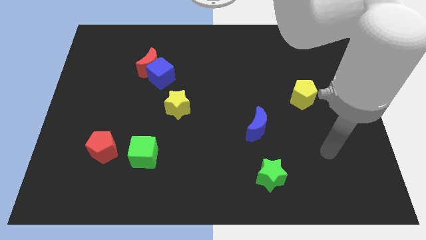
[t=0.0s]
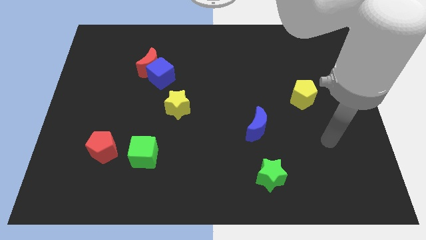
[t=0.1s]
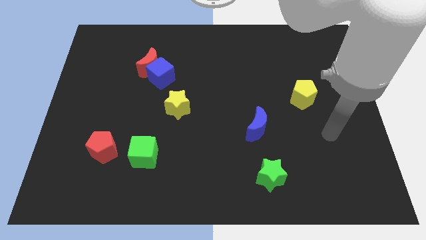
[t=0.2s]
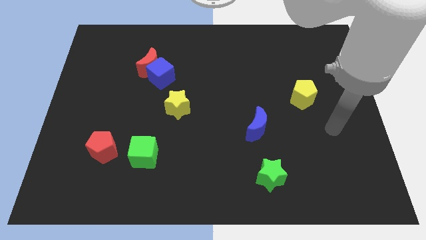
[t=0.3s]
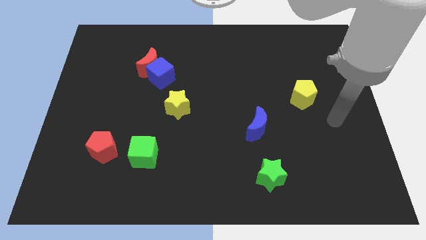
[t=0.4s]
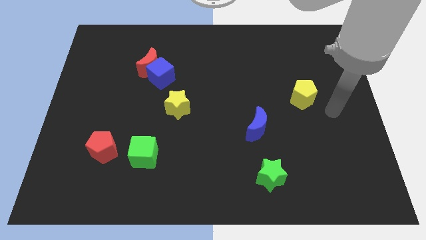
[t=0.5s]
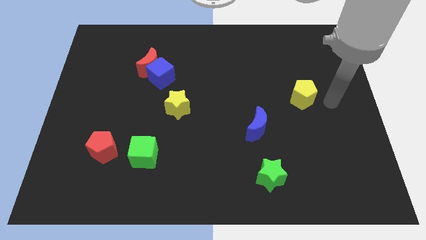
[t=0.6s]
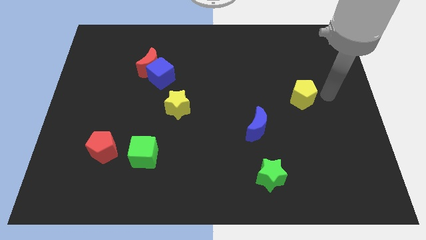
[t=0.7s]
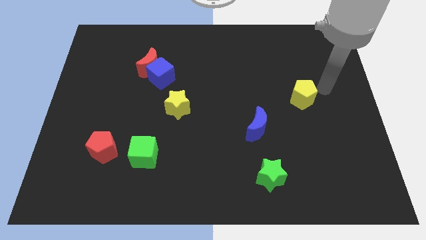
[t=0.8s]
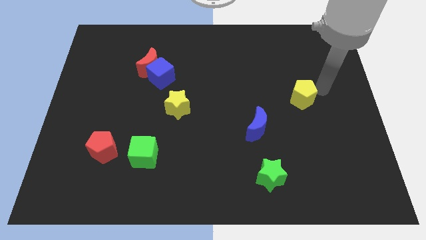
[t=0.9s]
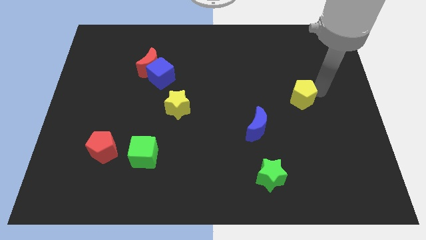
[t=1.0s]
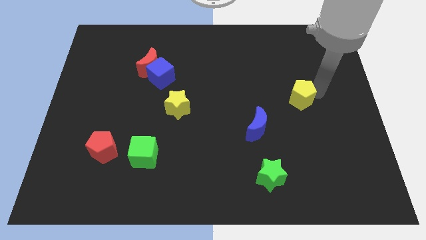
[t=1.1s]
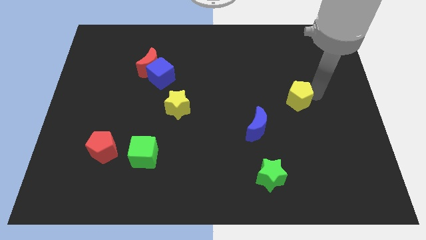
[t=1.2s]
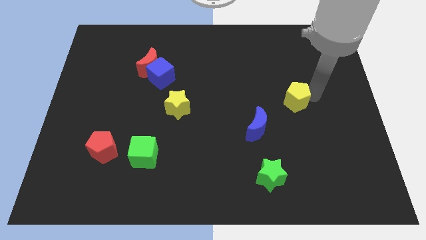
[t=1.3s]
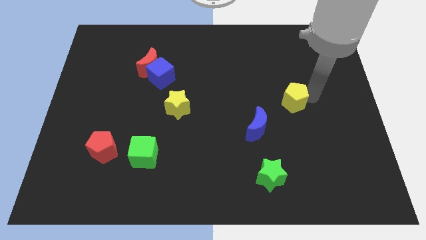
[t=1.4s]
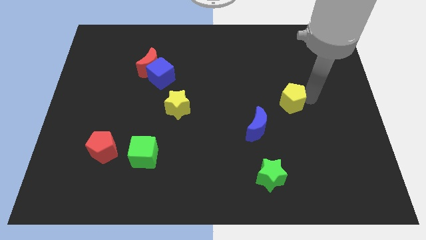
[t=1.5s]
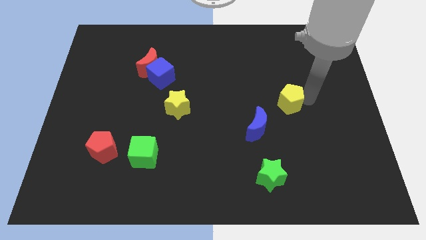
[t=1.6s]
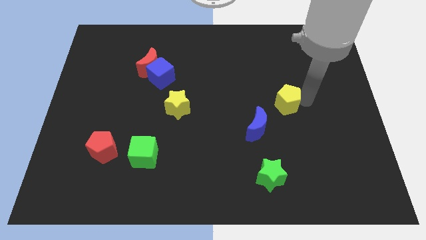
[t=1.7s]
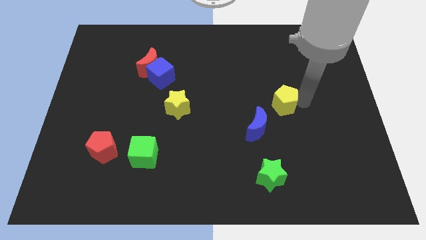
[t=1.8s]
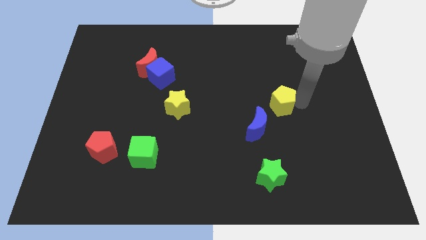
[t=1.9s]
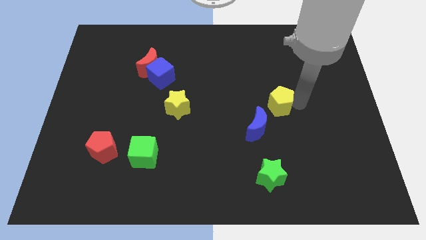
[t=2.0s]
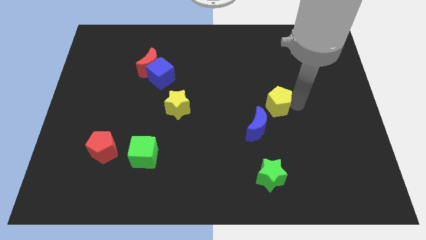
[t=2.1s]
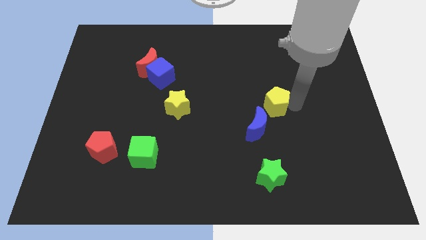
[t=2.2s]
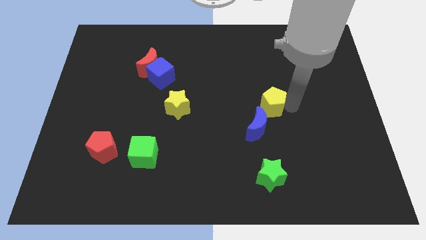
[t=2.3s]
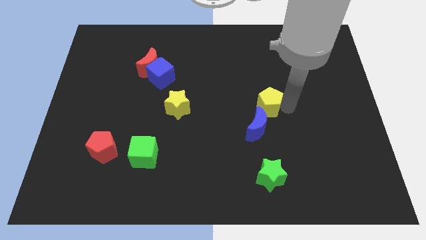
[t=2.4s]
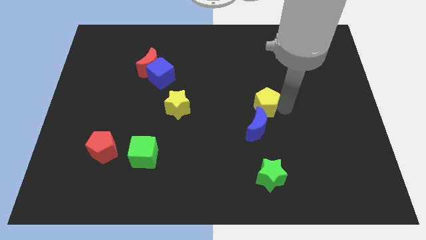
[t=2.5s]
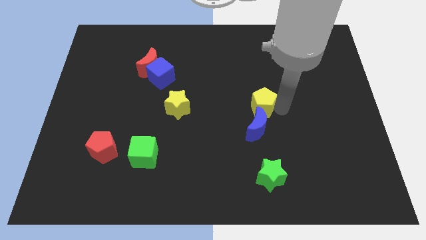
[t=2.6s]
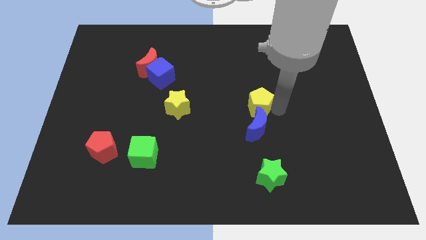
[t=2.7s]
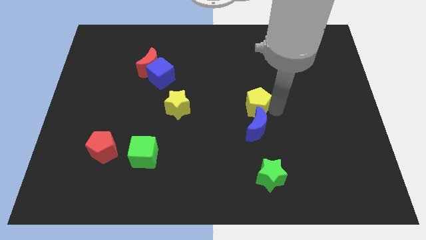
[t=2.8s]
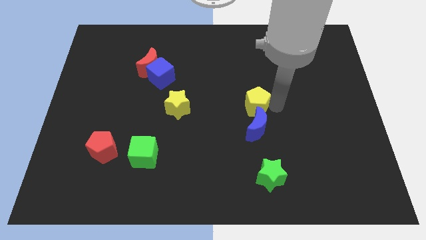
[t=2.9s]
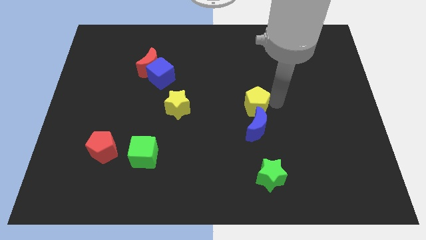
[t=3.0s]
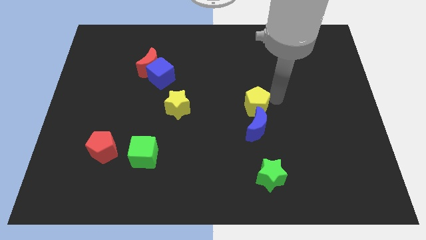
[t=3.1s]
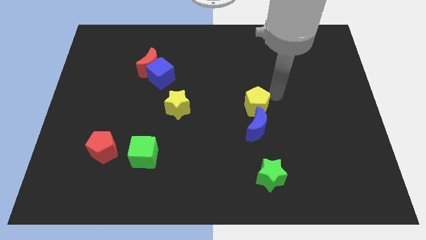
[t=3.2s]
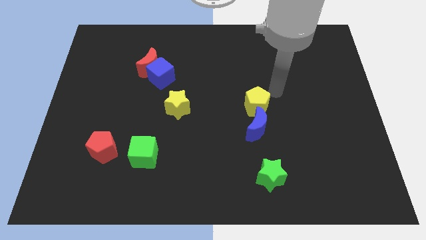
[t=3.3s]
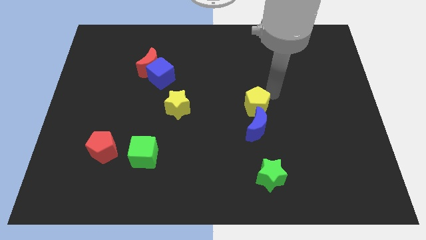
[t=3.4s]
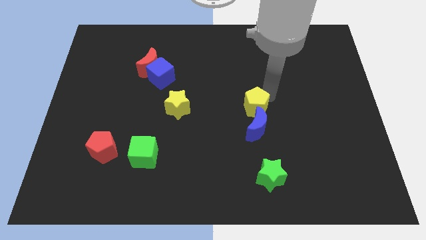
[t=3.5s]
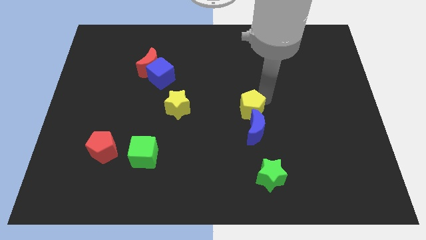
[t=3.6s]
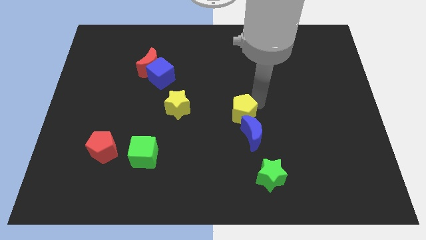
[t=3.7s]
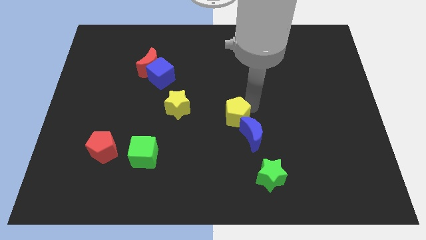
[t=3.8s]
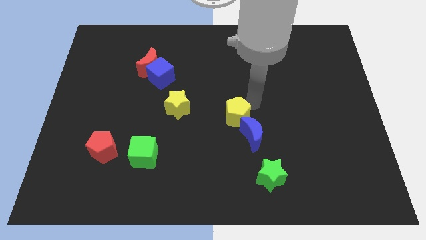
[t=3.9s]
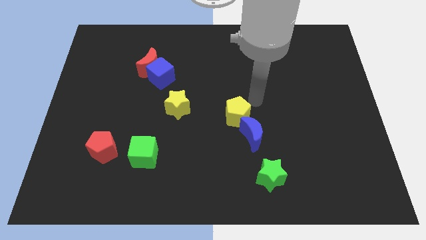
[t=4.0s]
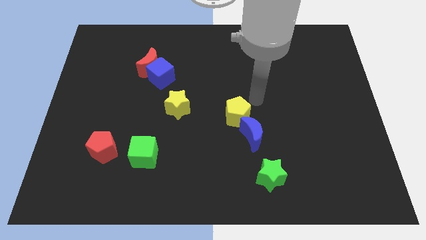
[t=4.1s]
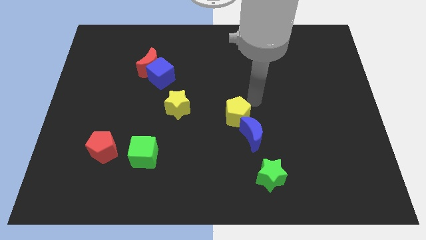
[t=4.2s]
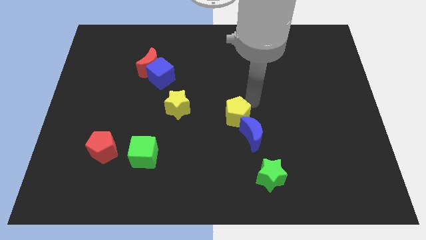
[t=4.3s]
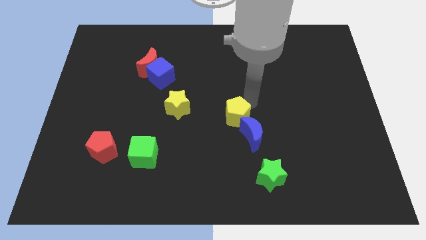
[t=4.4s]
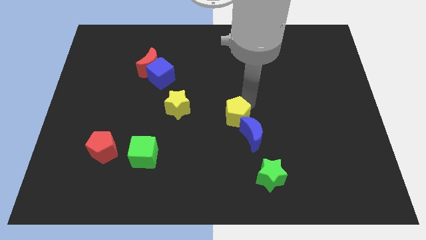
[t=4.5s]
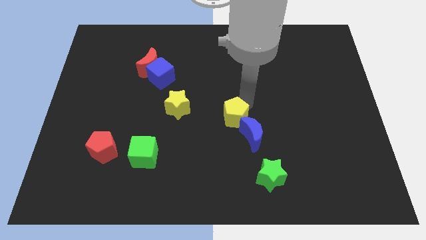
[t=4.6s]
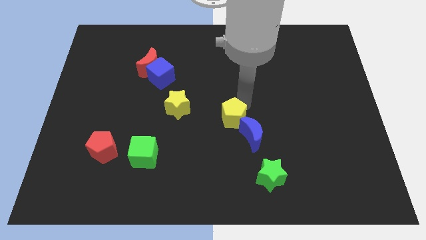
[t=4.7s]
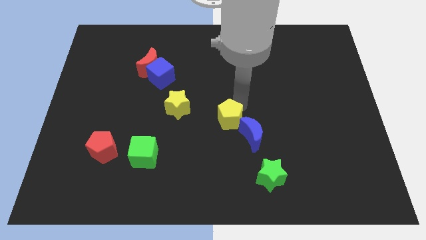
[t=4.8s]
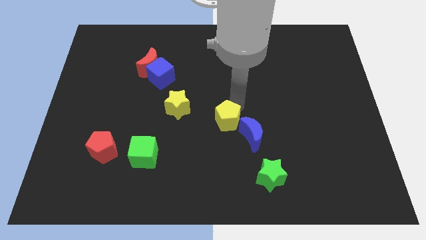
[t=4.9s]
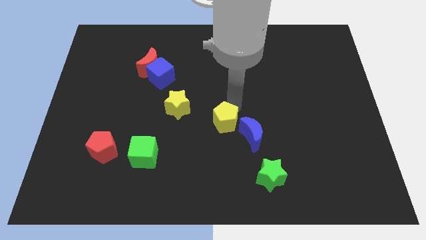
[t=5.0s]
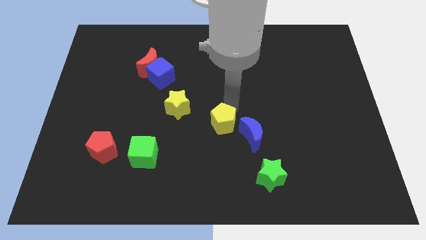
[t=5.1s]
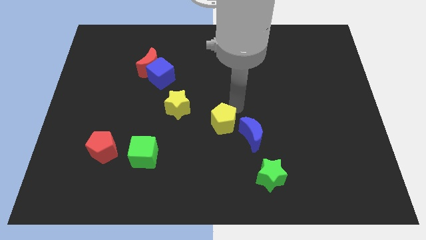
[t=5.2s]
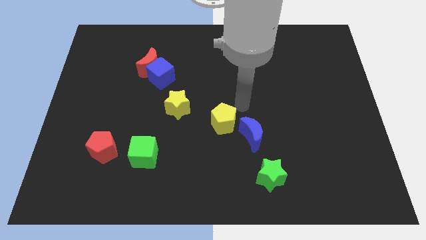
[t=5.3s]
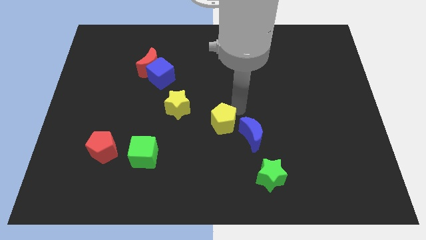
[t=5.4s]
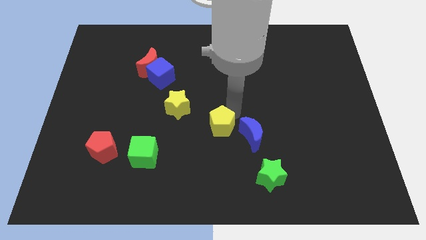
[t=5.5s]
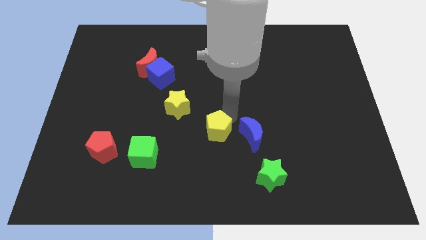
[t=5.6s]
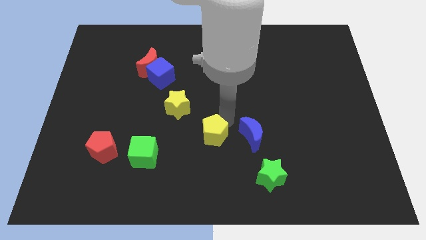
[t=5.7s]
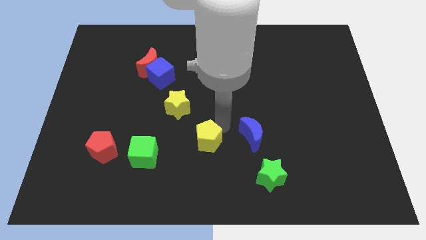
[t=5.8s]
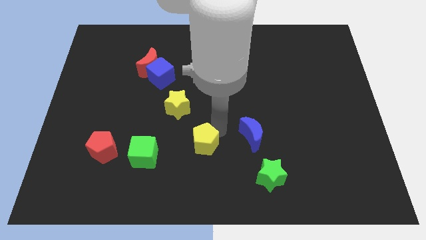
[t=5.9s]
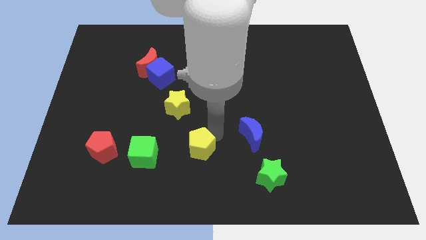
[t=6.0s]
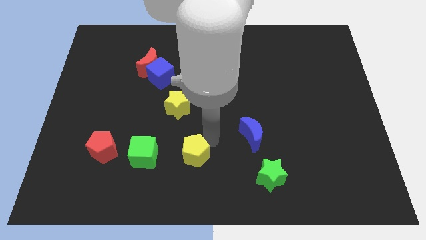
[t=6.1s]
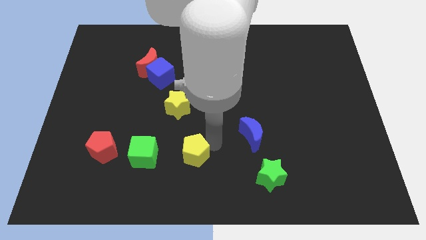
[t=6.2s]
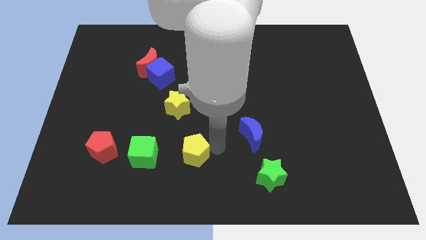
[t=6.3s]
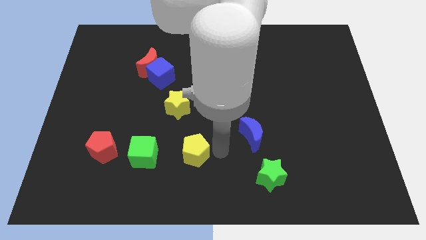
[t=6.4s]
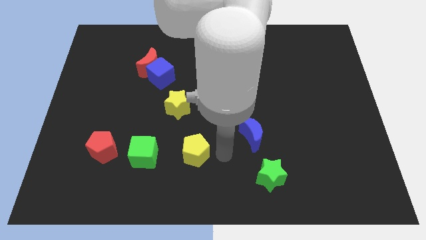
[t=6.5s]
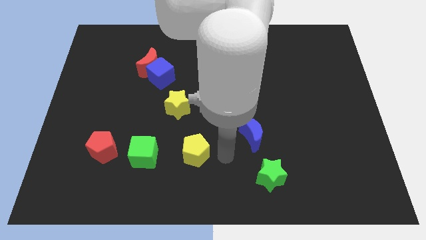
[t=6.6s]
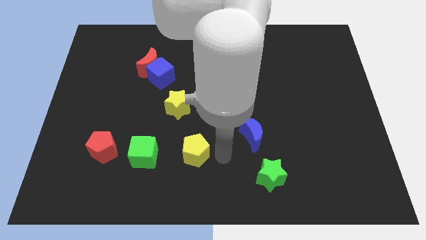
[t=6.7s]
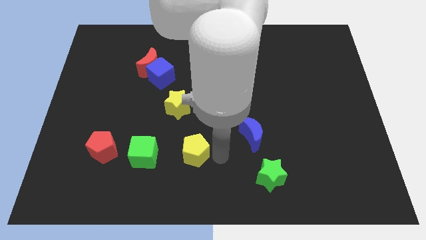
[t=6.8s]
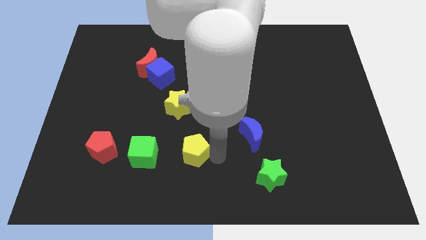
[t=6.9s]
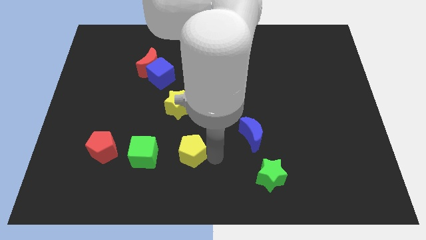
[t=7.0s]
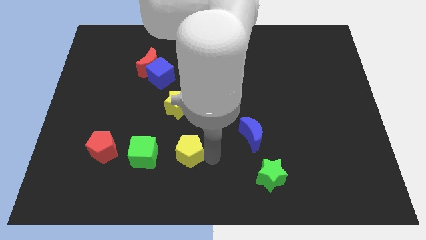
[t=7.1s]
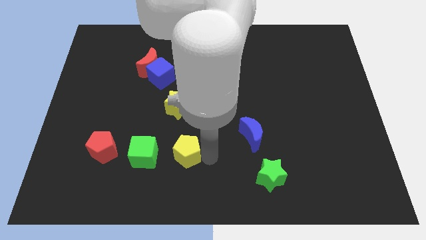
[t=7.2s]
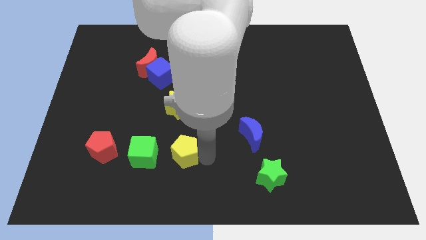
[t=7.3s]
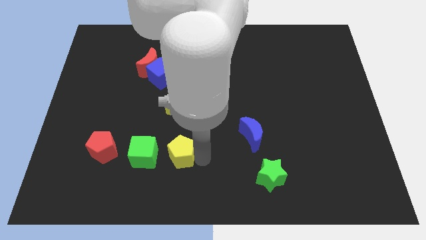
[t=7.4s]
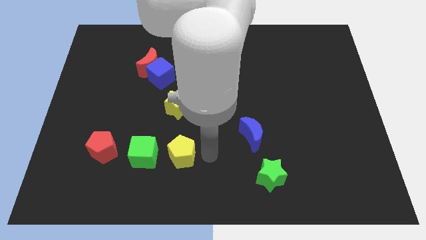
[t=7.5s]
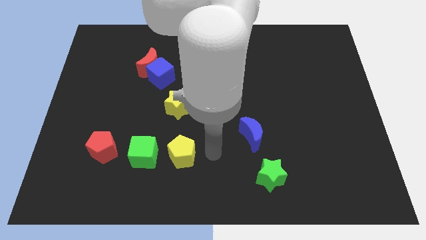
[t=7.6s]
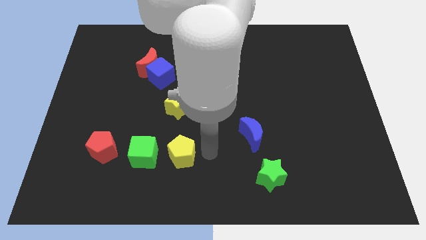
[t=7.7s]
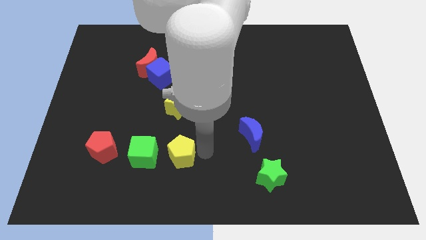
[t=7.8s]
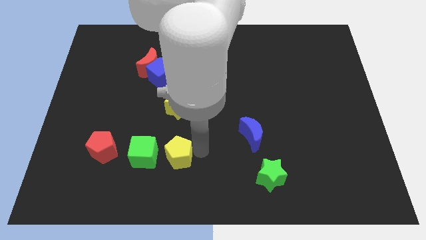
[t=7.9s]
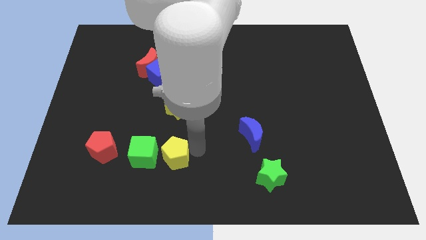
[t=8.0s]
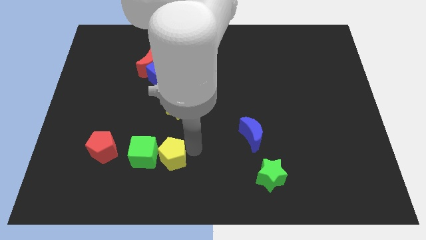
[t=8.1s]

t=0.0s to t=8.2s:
push the yellow pentagon towards the green cube

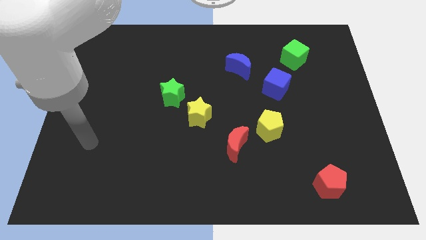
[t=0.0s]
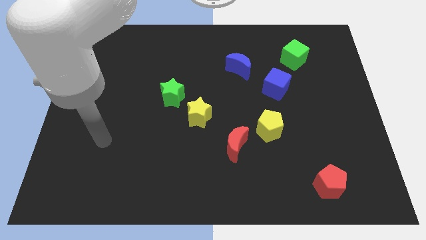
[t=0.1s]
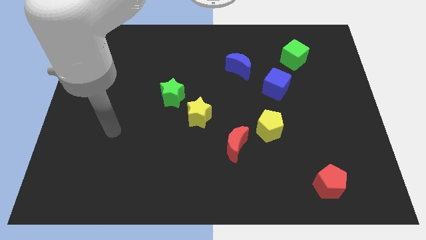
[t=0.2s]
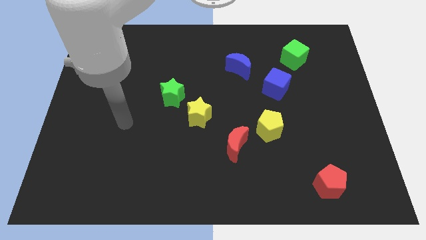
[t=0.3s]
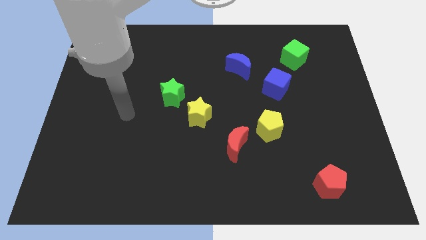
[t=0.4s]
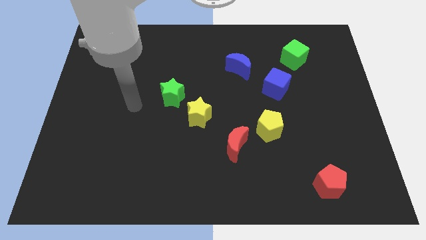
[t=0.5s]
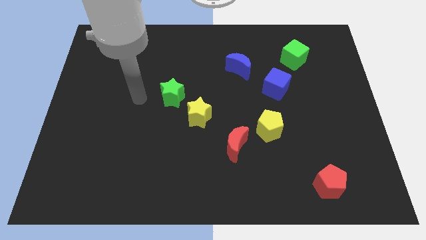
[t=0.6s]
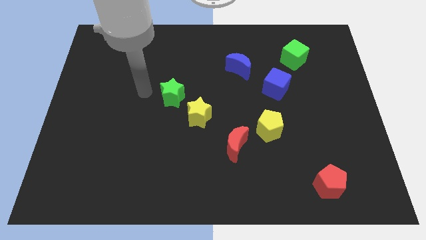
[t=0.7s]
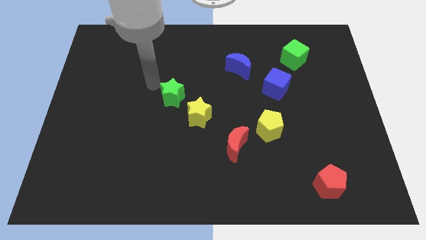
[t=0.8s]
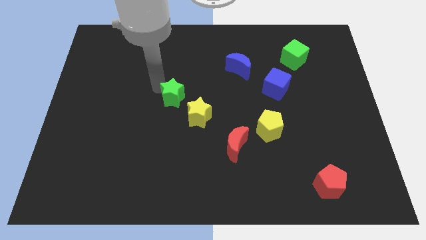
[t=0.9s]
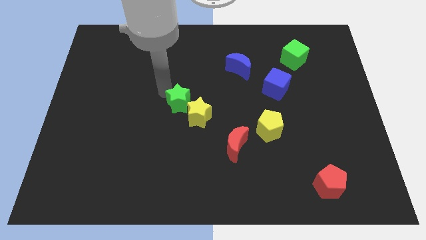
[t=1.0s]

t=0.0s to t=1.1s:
push the green star to the yellow star
